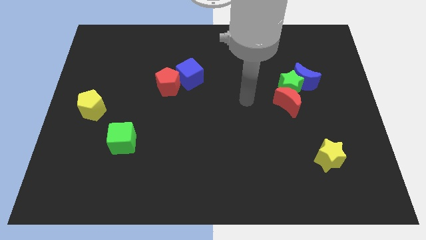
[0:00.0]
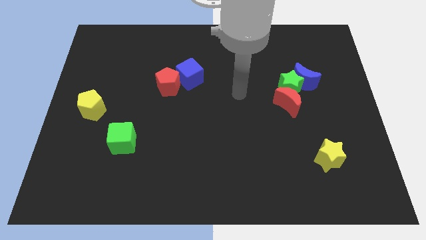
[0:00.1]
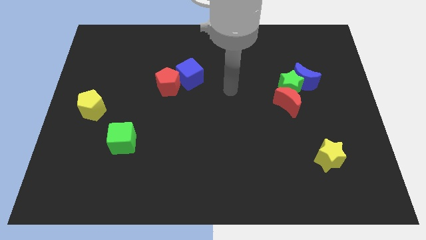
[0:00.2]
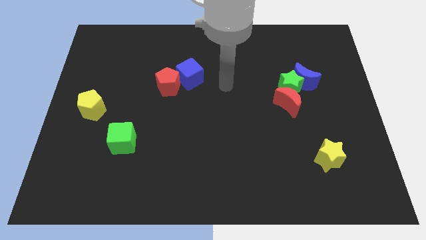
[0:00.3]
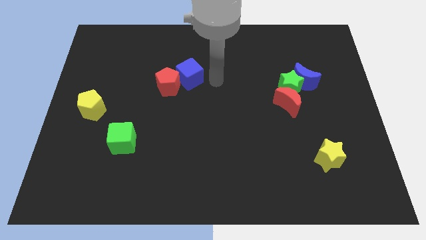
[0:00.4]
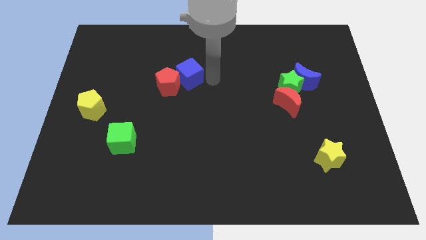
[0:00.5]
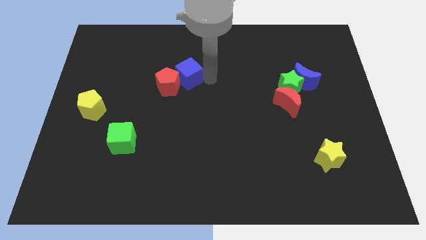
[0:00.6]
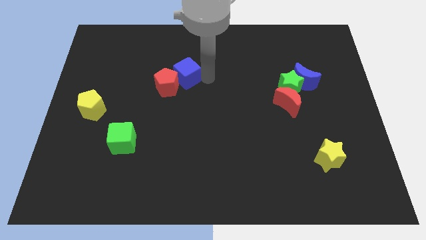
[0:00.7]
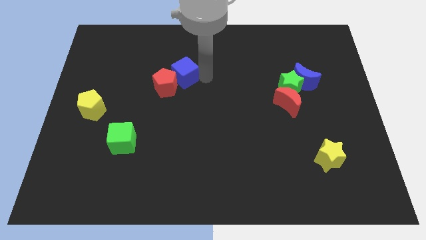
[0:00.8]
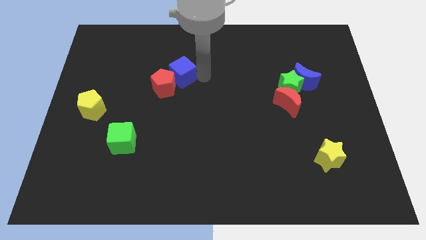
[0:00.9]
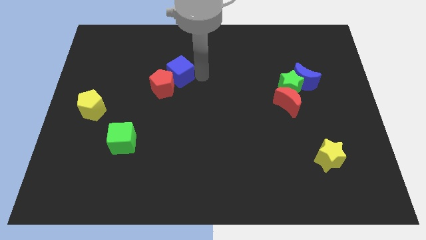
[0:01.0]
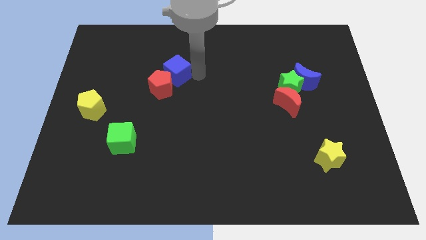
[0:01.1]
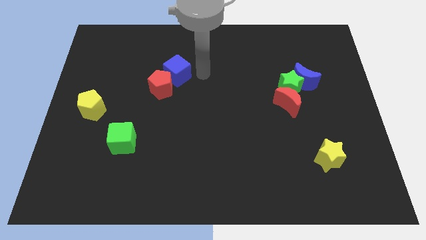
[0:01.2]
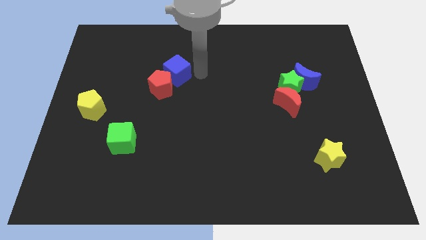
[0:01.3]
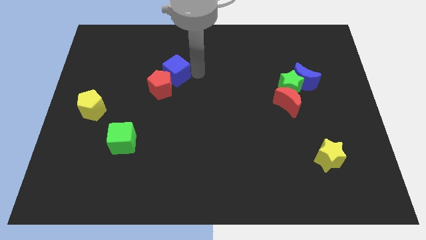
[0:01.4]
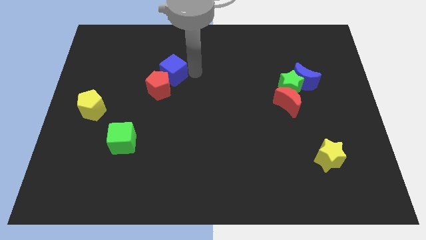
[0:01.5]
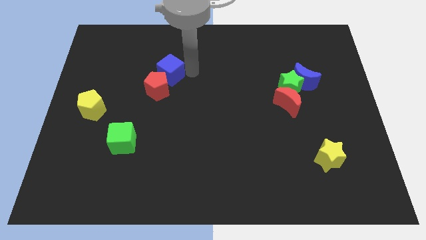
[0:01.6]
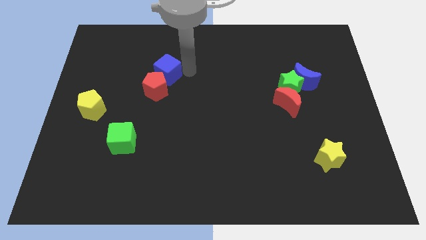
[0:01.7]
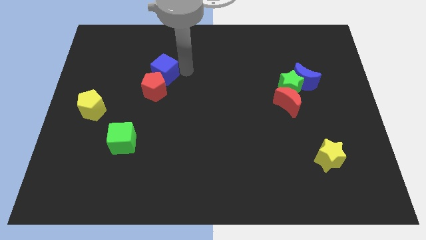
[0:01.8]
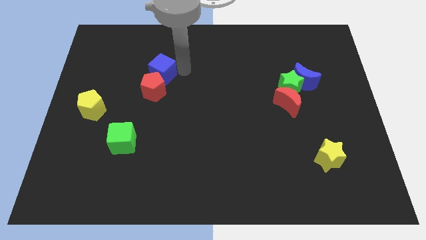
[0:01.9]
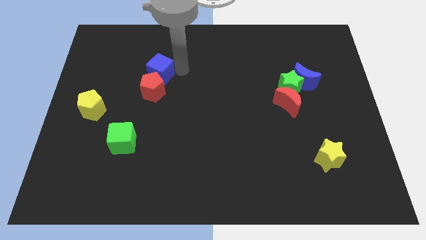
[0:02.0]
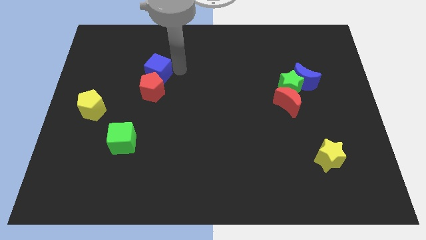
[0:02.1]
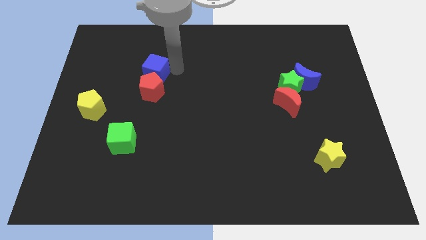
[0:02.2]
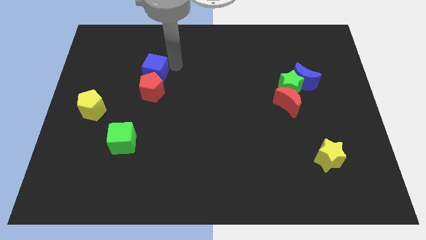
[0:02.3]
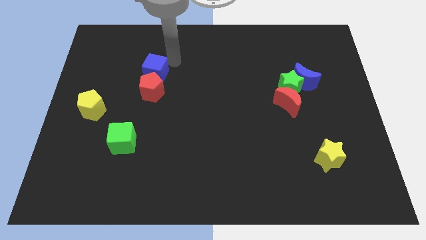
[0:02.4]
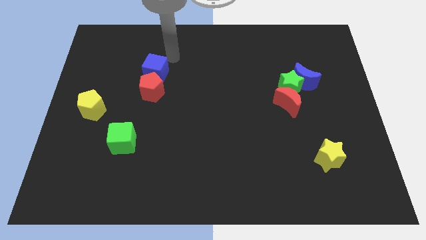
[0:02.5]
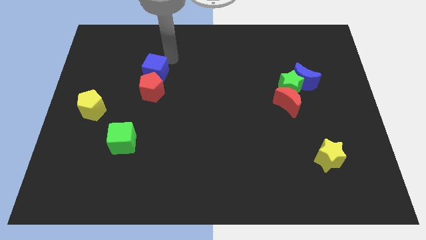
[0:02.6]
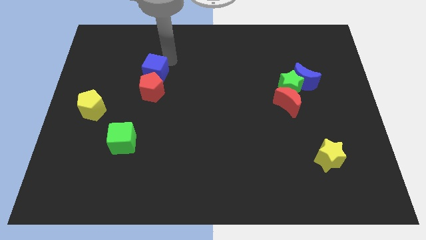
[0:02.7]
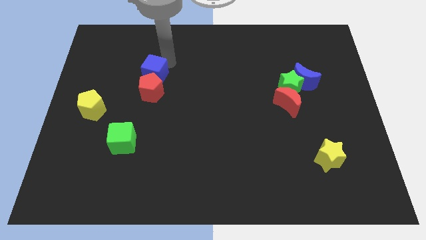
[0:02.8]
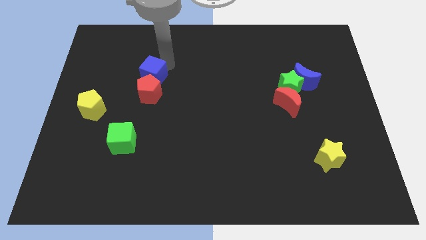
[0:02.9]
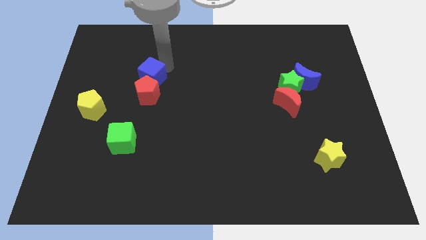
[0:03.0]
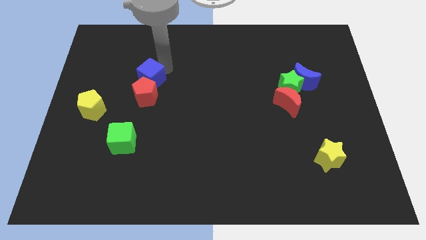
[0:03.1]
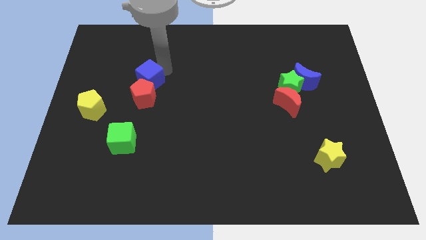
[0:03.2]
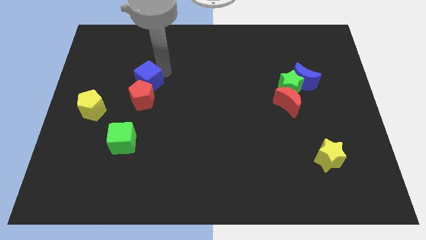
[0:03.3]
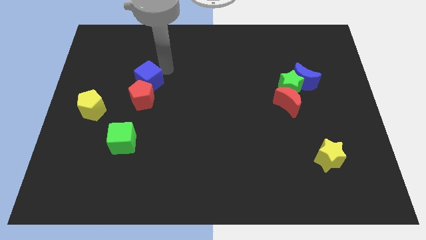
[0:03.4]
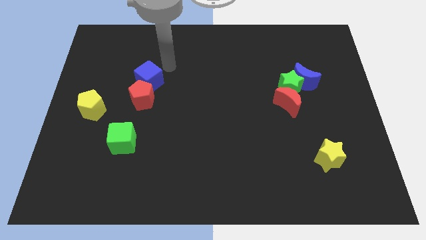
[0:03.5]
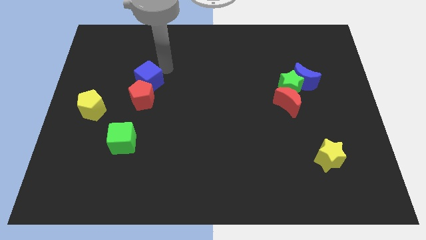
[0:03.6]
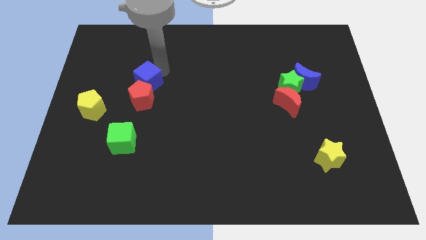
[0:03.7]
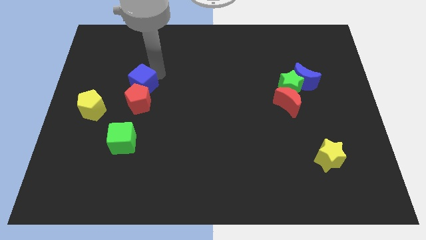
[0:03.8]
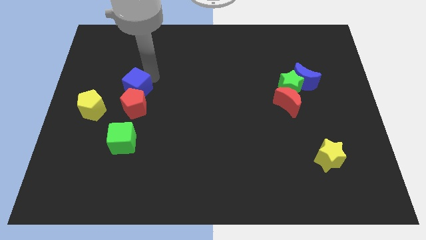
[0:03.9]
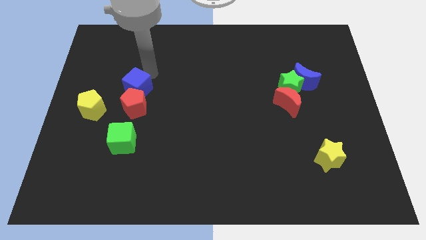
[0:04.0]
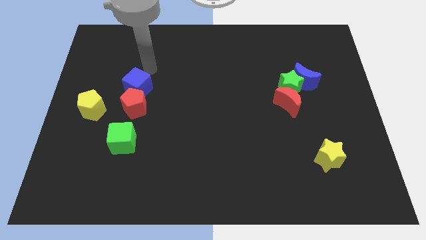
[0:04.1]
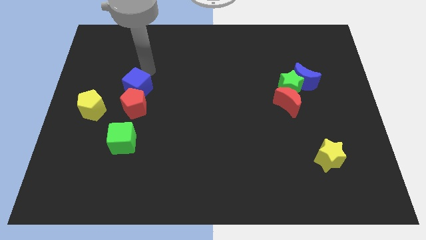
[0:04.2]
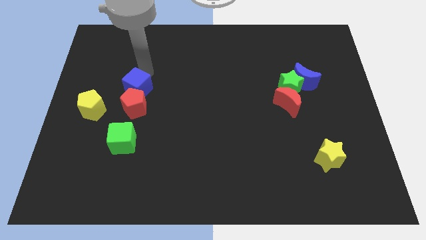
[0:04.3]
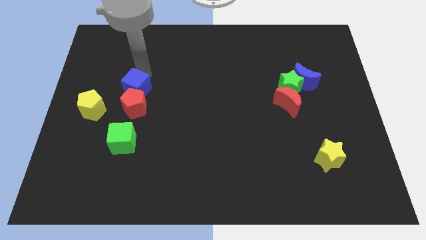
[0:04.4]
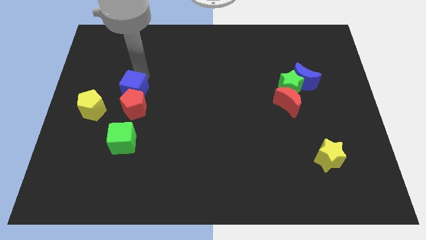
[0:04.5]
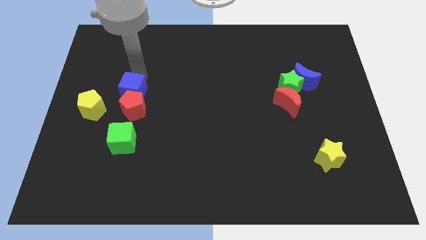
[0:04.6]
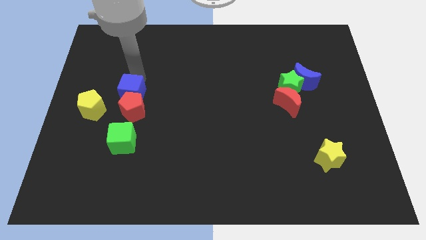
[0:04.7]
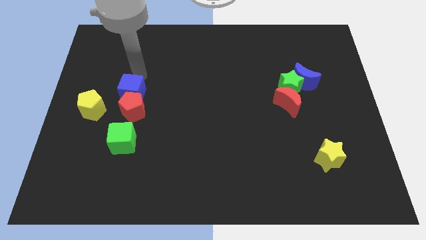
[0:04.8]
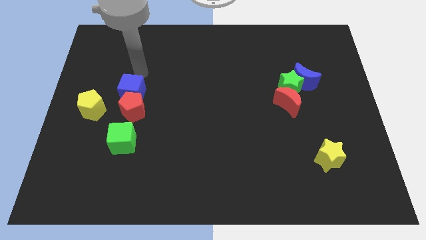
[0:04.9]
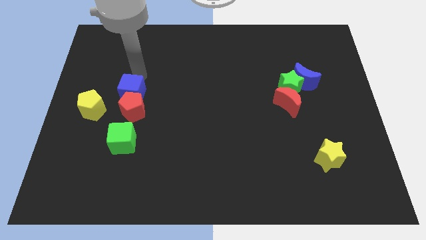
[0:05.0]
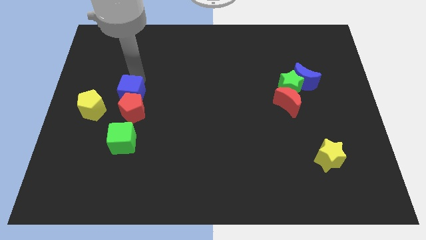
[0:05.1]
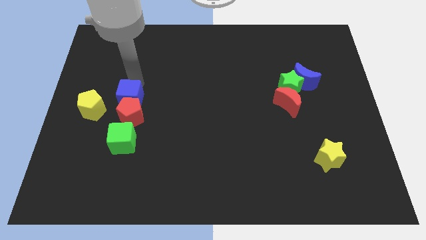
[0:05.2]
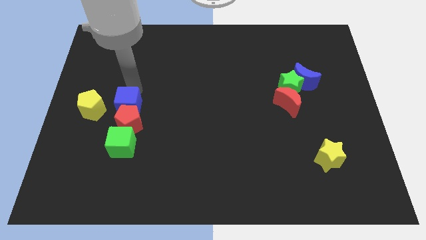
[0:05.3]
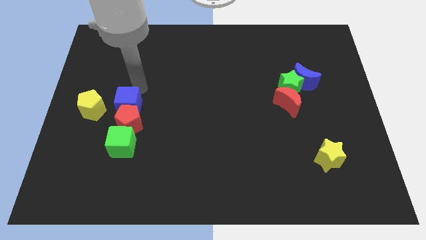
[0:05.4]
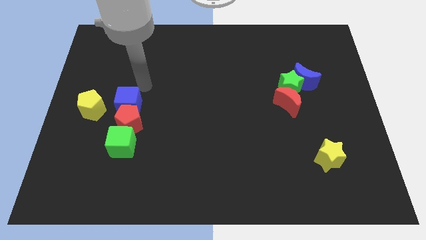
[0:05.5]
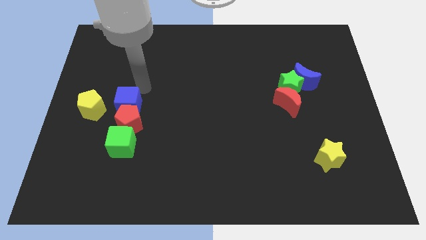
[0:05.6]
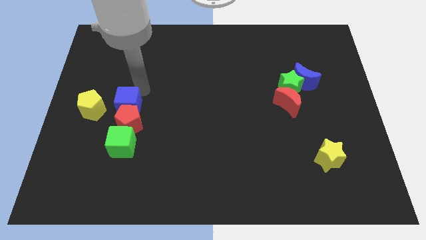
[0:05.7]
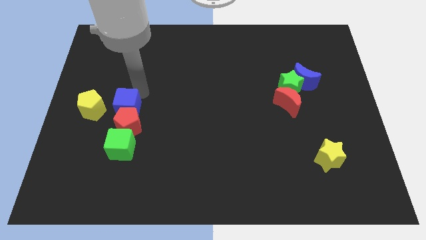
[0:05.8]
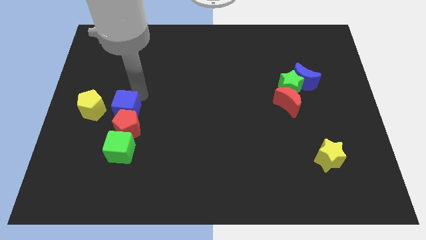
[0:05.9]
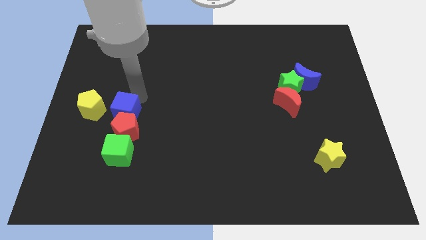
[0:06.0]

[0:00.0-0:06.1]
slide the blue cube diagonally down and to the right of the yellow pentagon
